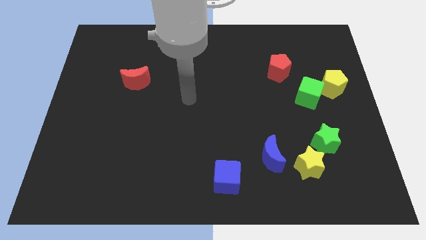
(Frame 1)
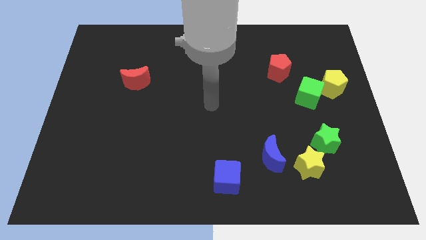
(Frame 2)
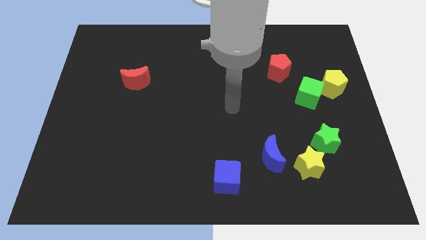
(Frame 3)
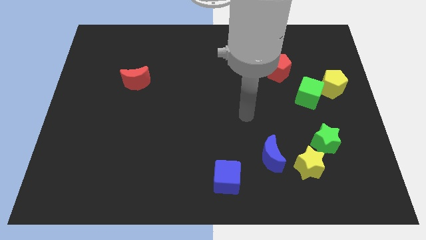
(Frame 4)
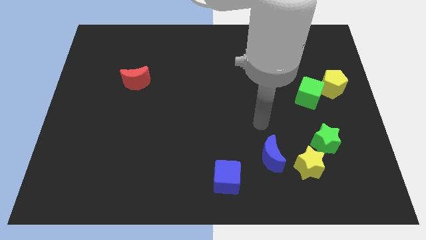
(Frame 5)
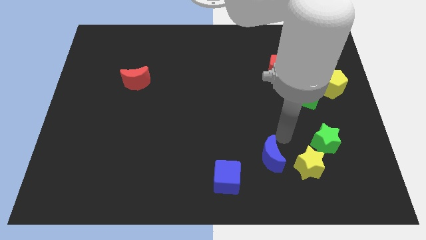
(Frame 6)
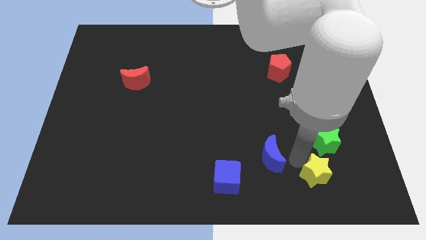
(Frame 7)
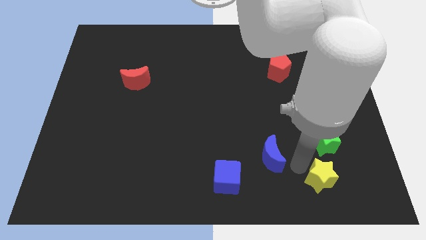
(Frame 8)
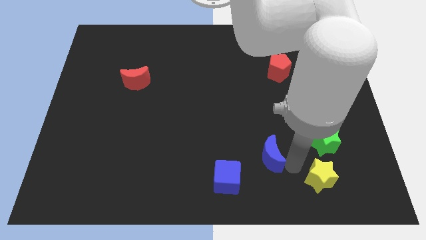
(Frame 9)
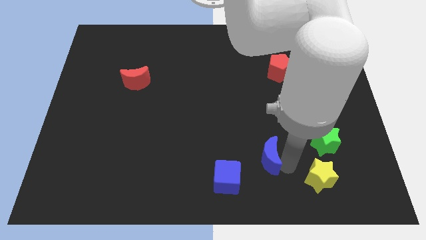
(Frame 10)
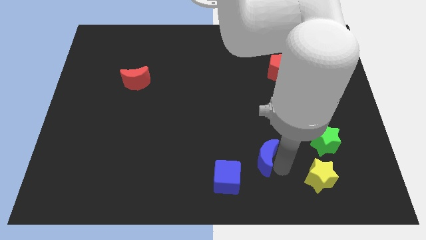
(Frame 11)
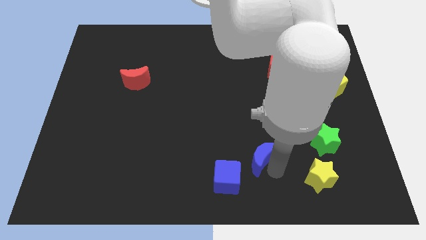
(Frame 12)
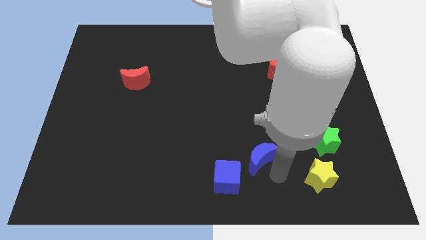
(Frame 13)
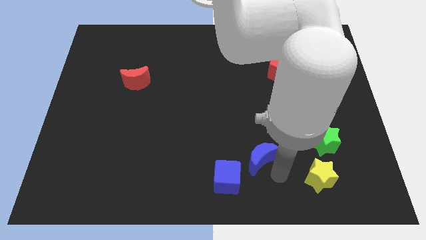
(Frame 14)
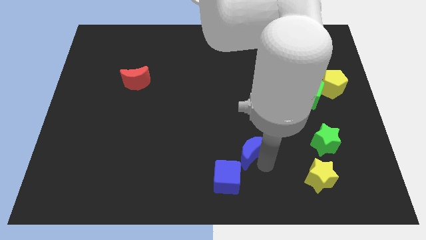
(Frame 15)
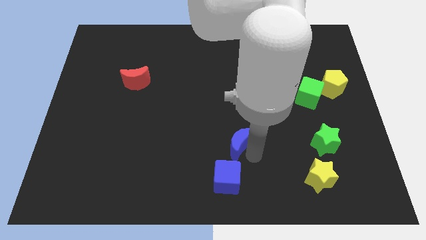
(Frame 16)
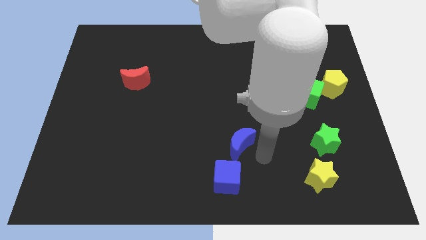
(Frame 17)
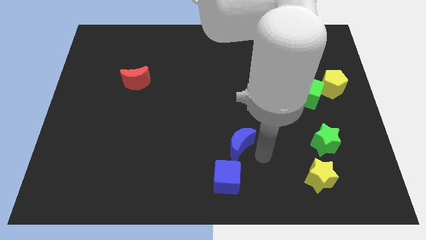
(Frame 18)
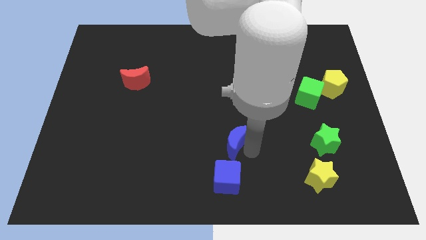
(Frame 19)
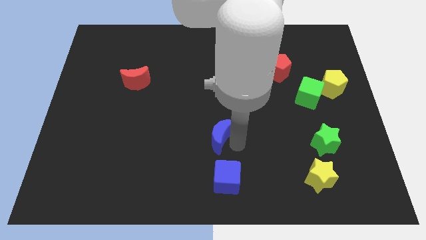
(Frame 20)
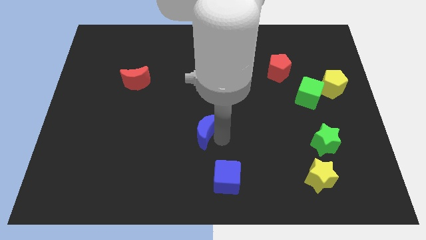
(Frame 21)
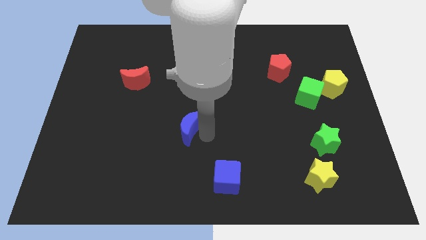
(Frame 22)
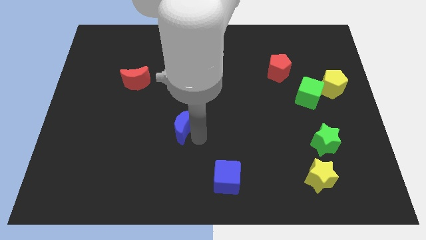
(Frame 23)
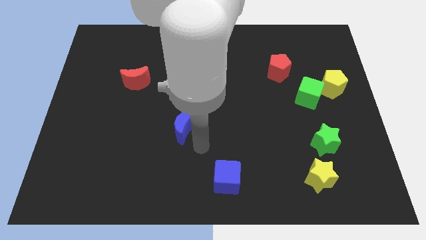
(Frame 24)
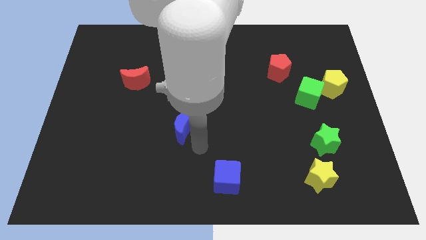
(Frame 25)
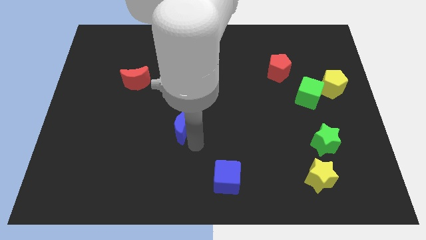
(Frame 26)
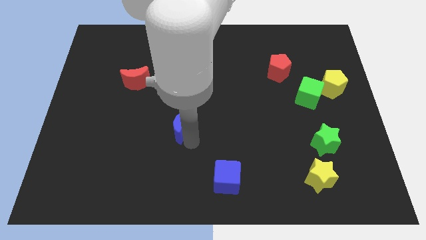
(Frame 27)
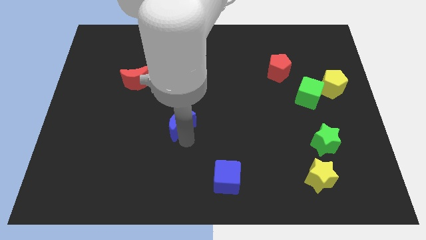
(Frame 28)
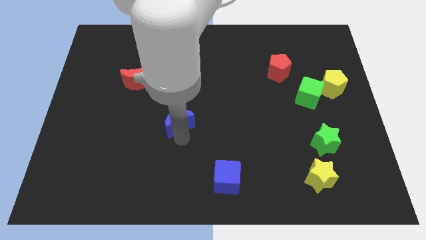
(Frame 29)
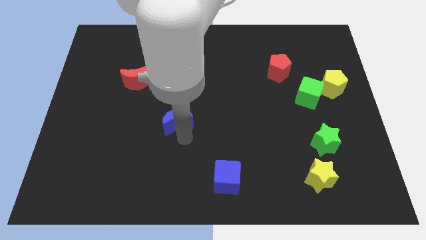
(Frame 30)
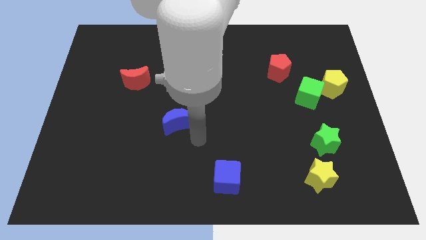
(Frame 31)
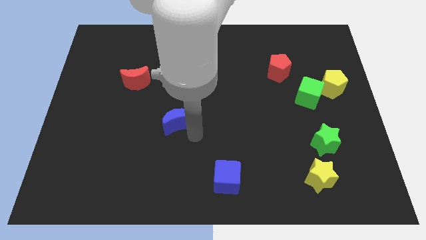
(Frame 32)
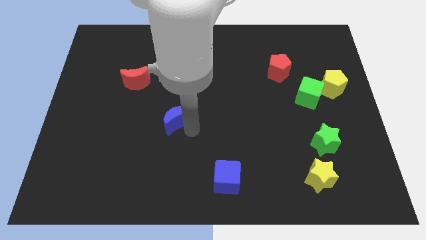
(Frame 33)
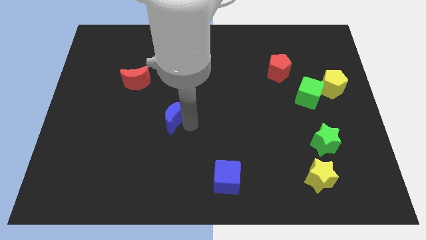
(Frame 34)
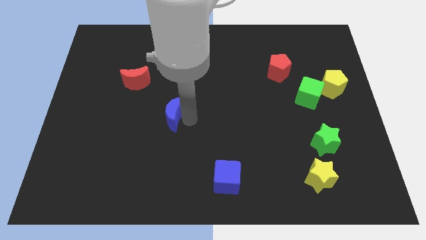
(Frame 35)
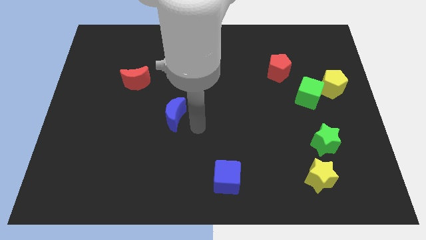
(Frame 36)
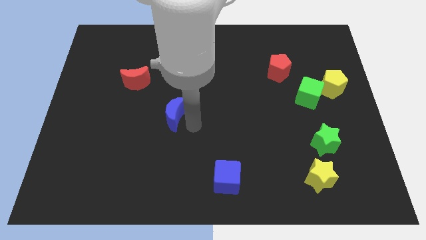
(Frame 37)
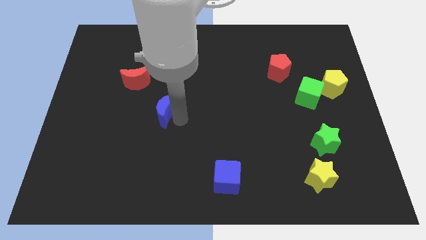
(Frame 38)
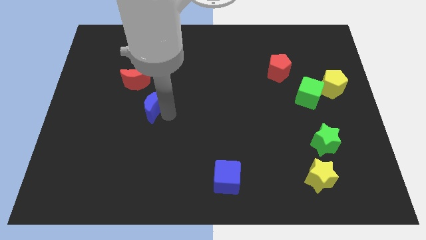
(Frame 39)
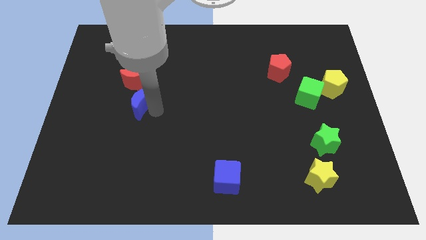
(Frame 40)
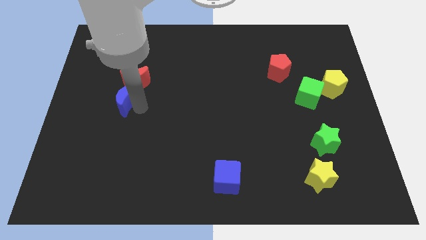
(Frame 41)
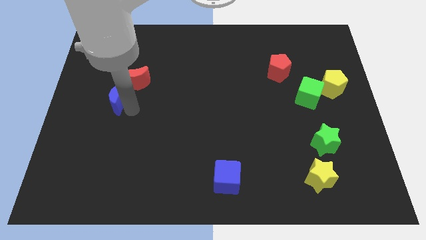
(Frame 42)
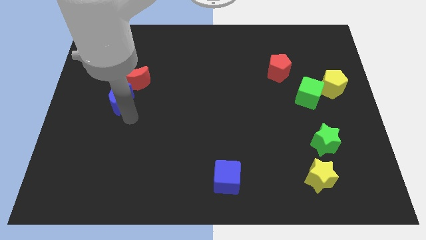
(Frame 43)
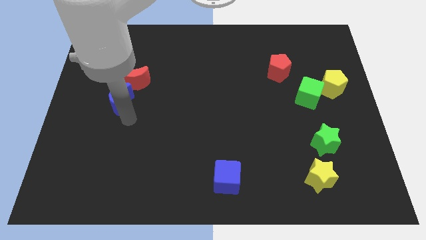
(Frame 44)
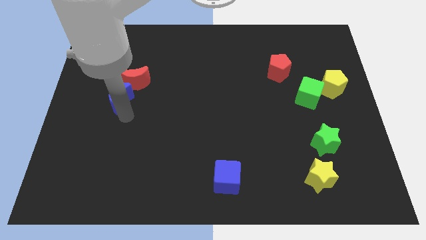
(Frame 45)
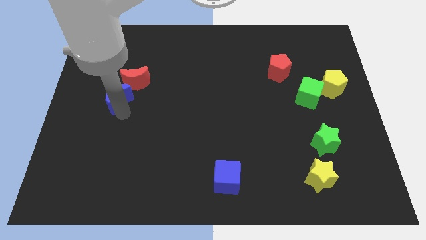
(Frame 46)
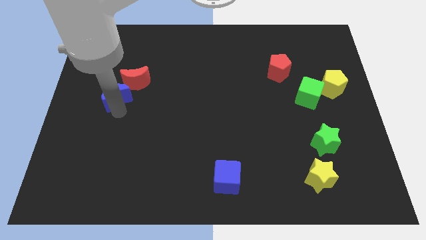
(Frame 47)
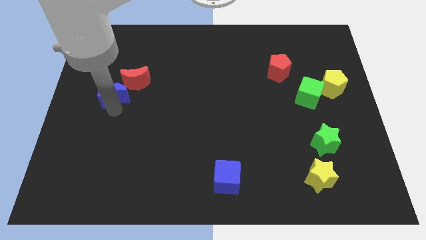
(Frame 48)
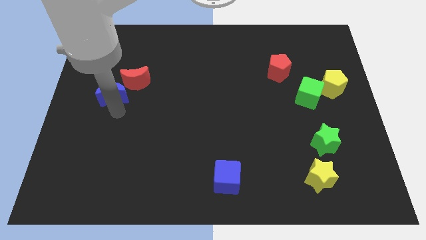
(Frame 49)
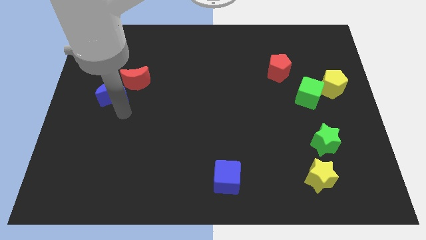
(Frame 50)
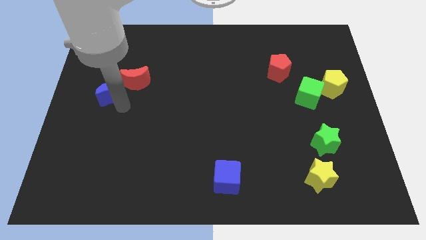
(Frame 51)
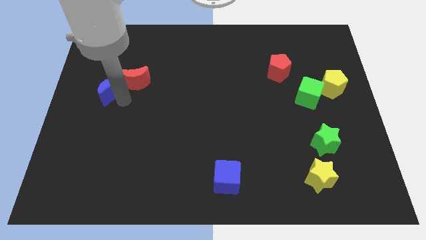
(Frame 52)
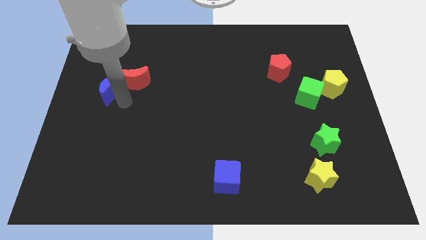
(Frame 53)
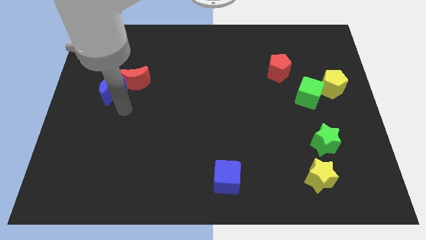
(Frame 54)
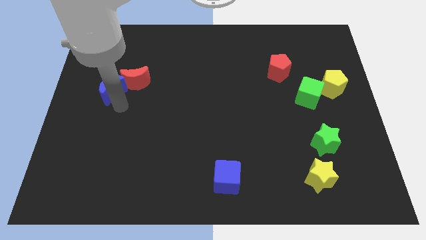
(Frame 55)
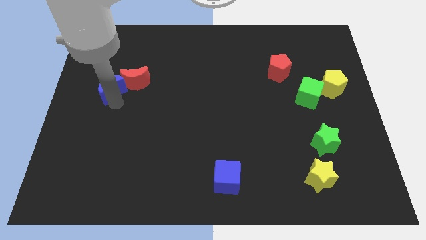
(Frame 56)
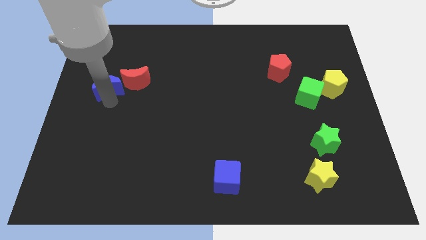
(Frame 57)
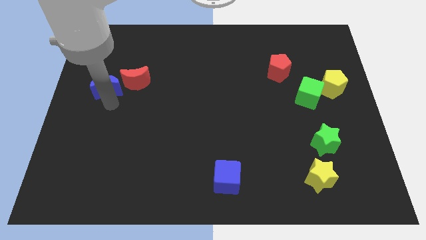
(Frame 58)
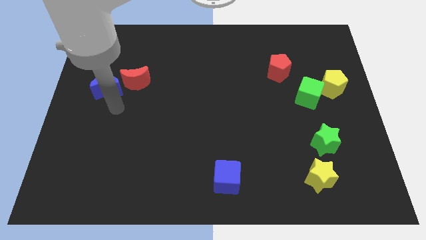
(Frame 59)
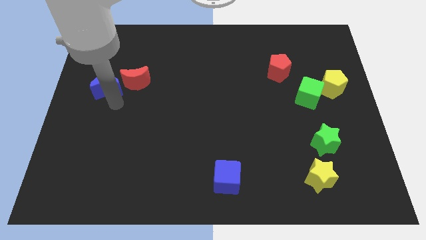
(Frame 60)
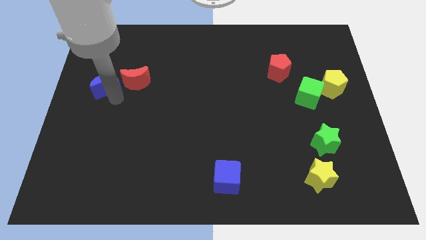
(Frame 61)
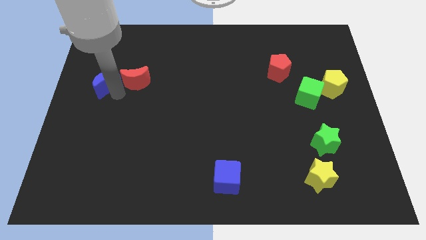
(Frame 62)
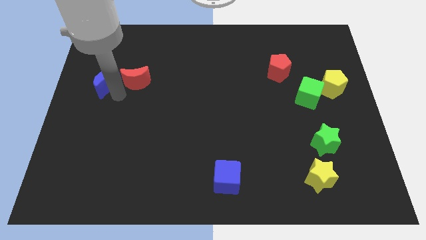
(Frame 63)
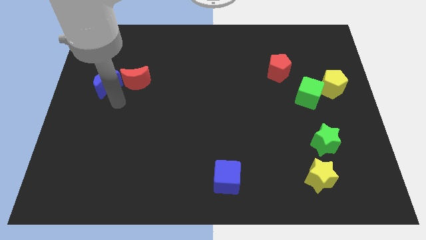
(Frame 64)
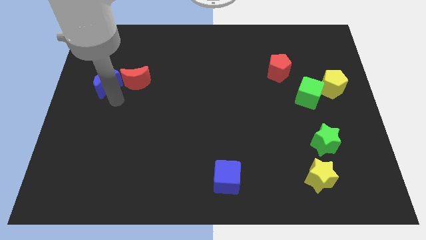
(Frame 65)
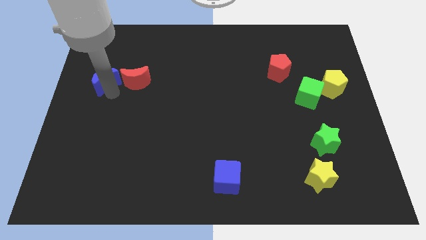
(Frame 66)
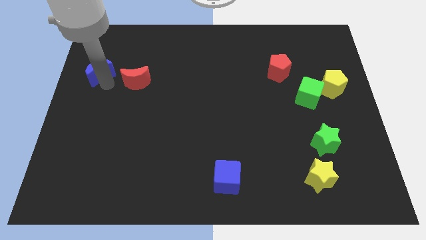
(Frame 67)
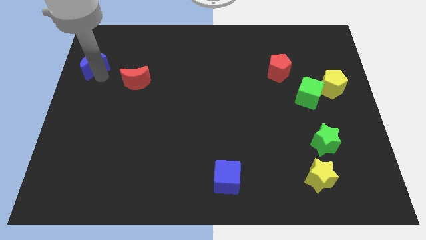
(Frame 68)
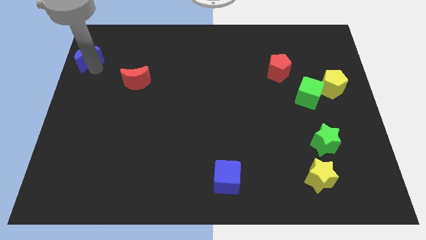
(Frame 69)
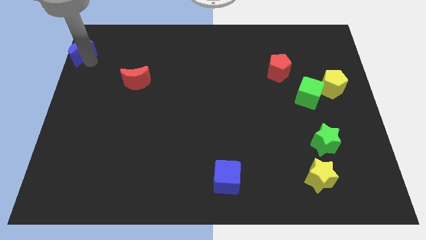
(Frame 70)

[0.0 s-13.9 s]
push the blue moon to the upper left corner
